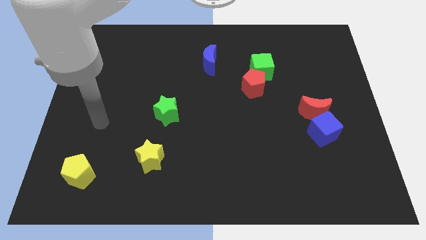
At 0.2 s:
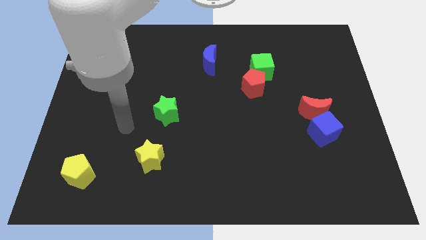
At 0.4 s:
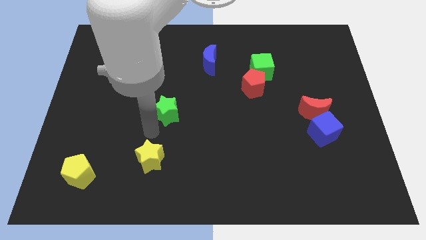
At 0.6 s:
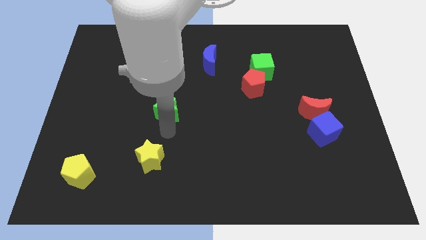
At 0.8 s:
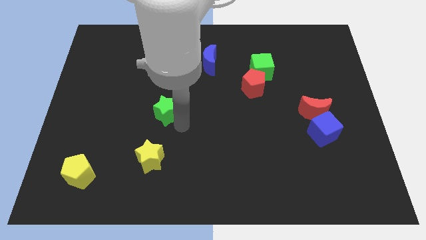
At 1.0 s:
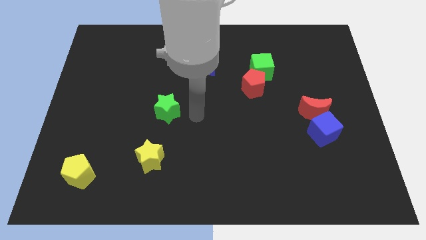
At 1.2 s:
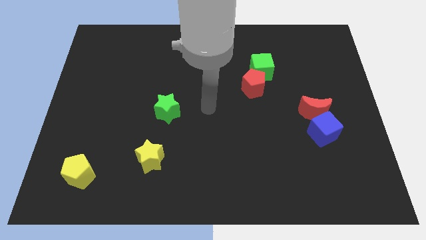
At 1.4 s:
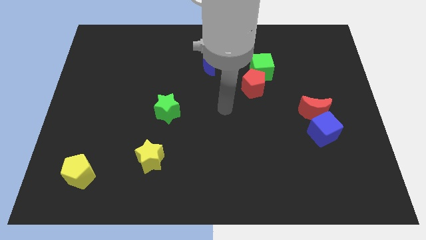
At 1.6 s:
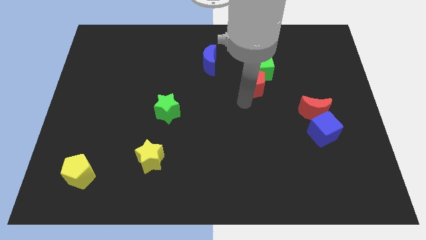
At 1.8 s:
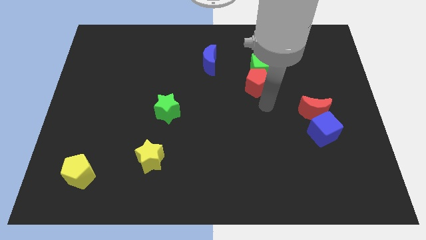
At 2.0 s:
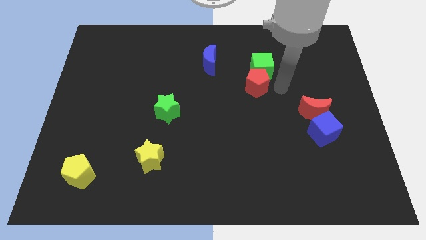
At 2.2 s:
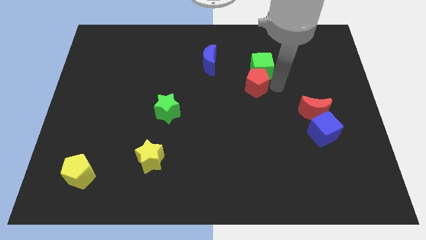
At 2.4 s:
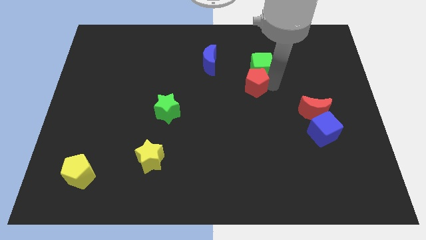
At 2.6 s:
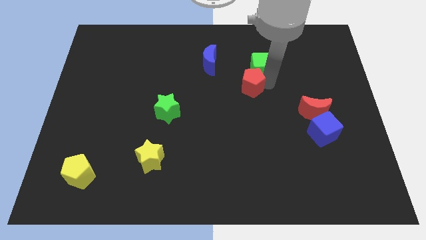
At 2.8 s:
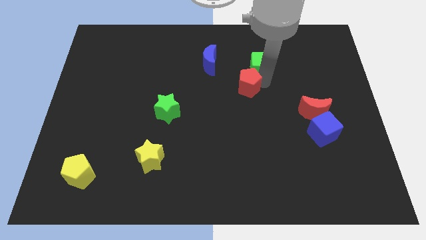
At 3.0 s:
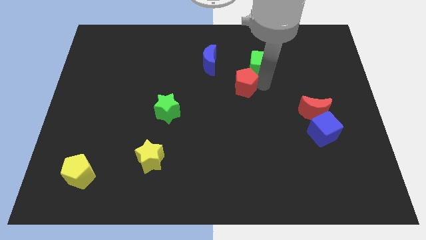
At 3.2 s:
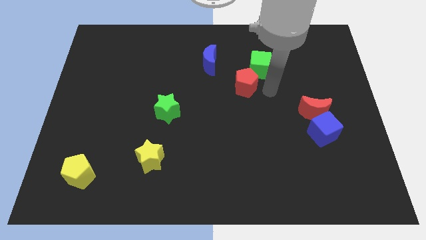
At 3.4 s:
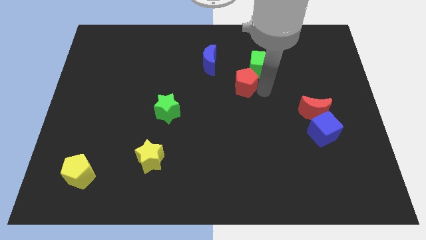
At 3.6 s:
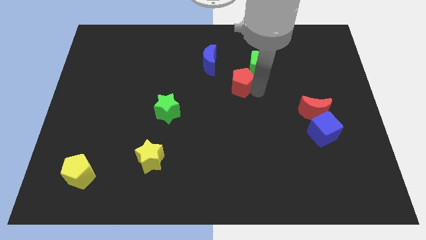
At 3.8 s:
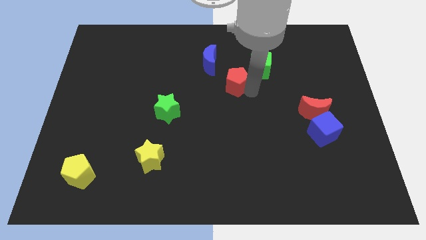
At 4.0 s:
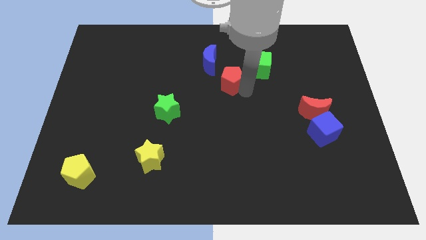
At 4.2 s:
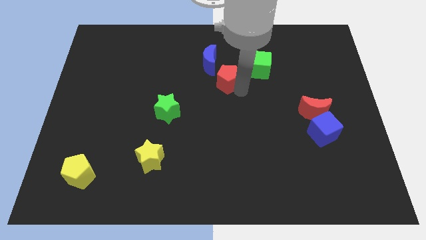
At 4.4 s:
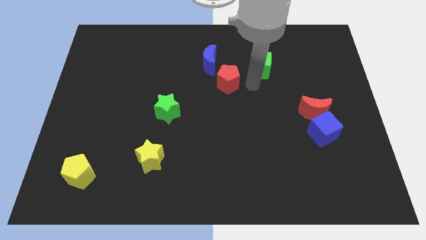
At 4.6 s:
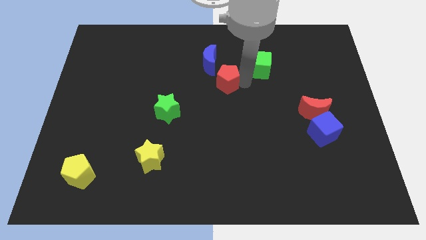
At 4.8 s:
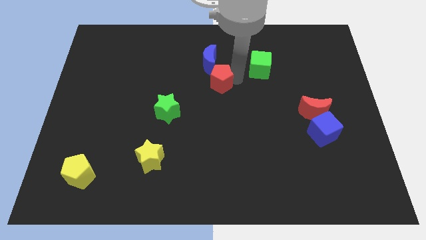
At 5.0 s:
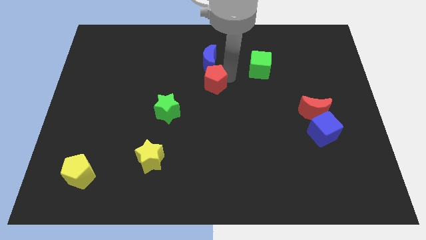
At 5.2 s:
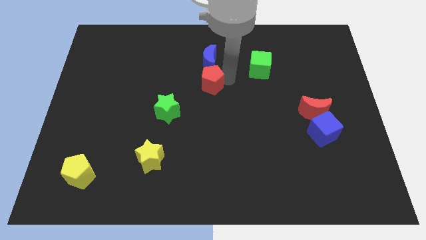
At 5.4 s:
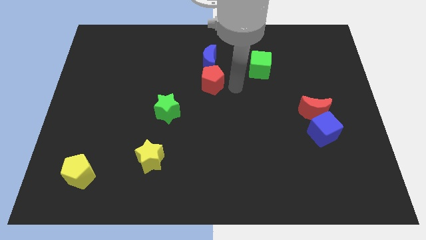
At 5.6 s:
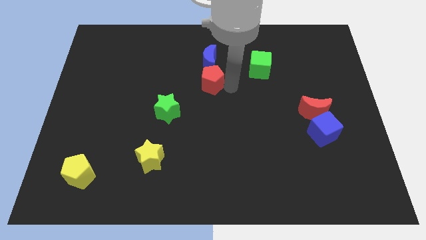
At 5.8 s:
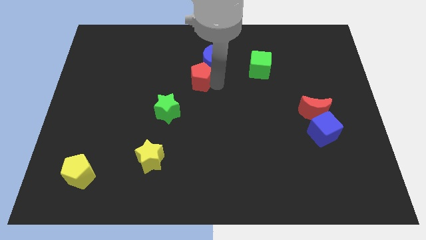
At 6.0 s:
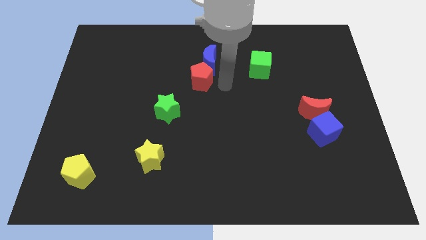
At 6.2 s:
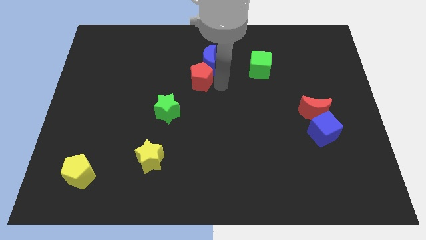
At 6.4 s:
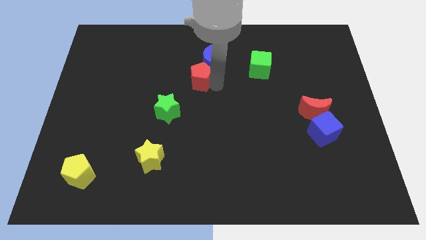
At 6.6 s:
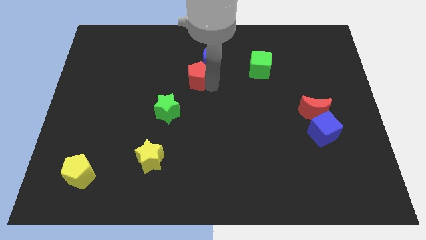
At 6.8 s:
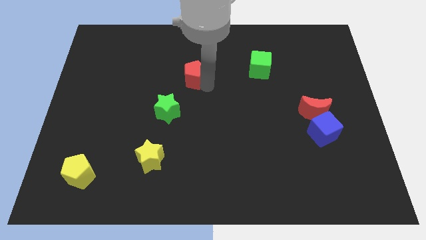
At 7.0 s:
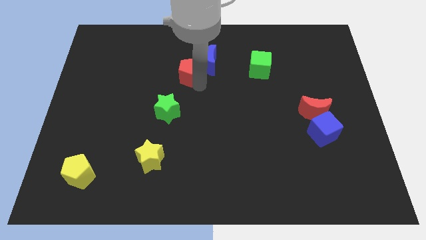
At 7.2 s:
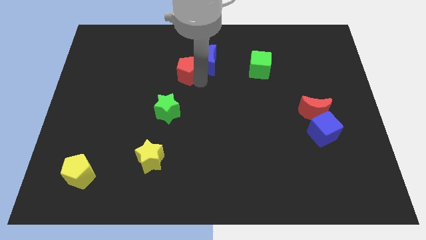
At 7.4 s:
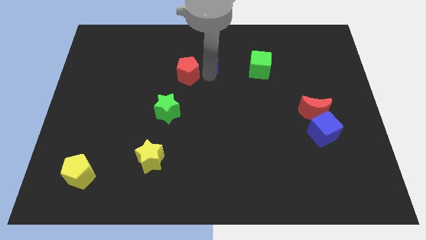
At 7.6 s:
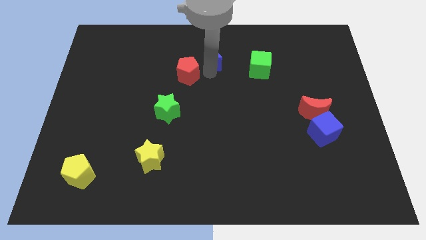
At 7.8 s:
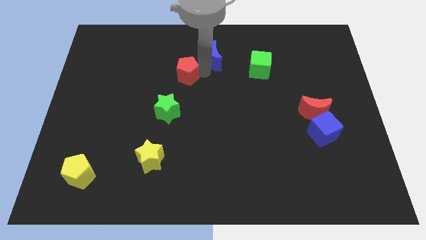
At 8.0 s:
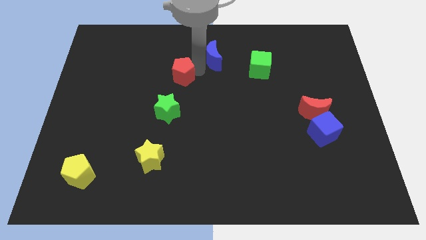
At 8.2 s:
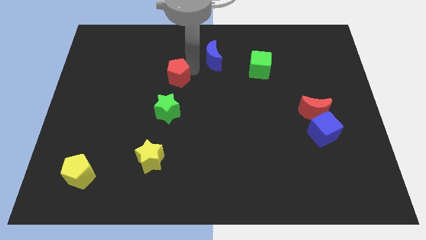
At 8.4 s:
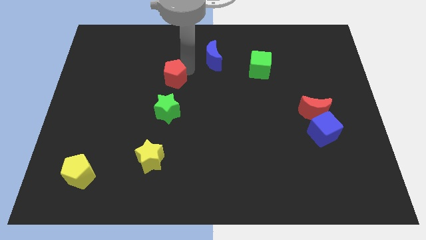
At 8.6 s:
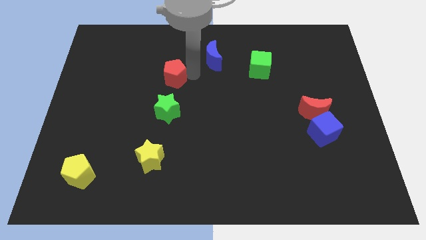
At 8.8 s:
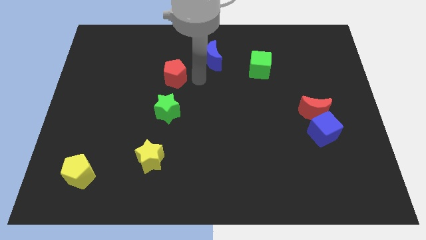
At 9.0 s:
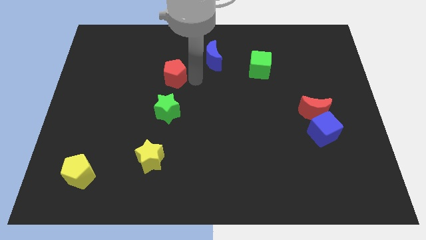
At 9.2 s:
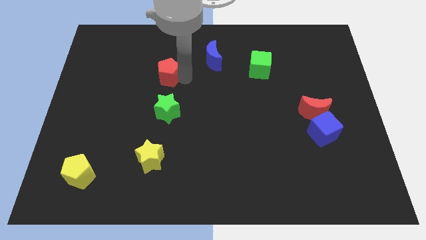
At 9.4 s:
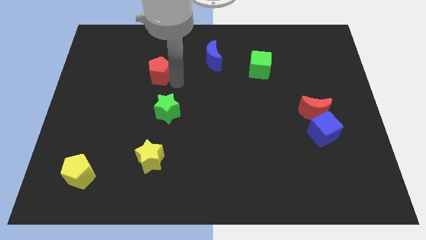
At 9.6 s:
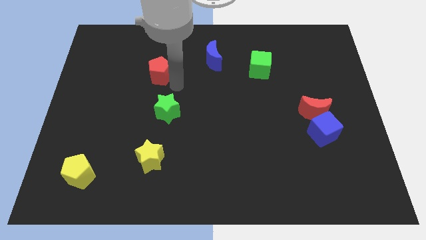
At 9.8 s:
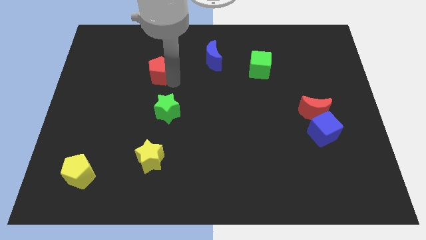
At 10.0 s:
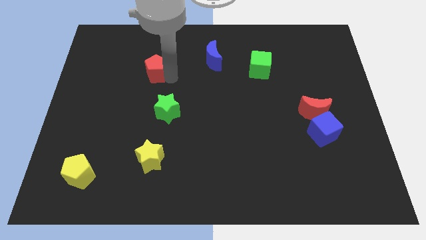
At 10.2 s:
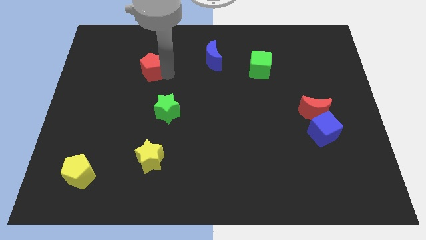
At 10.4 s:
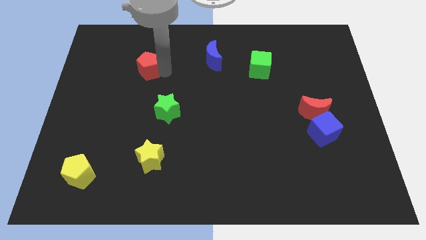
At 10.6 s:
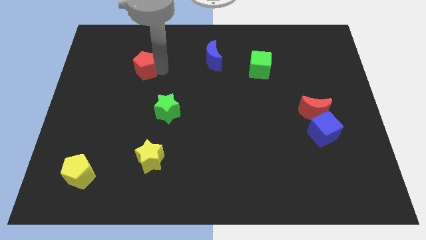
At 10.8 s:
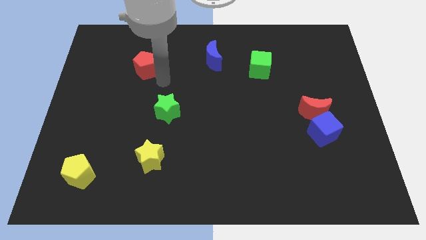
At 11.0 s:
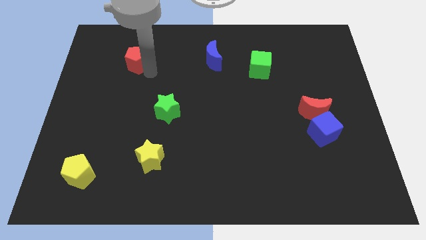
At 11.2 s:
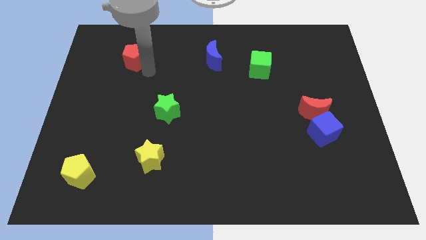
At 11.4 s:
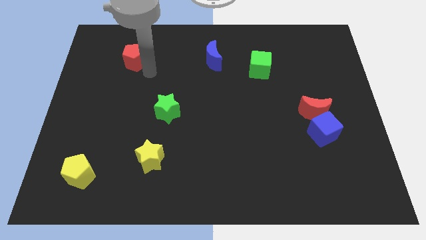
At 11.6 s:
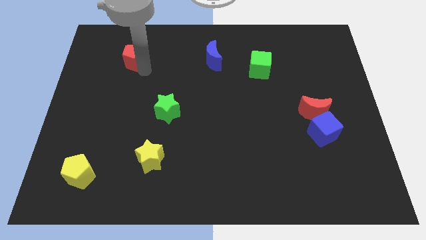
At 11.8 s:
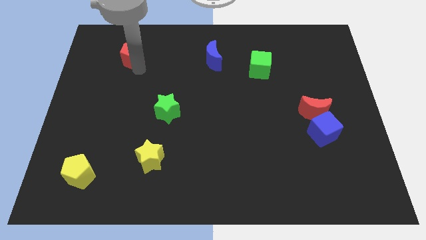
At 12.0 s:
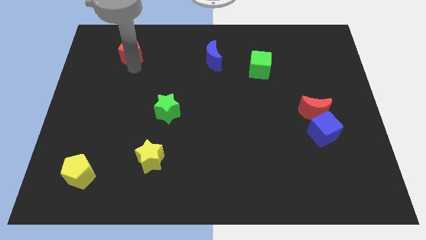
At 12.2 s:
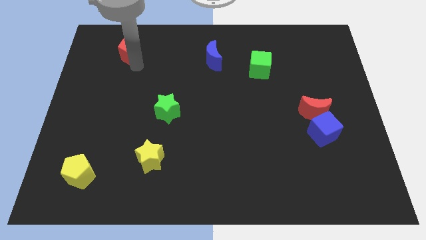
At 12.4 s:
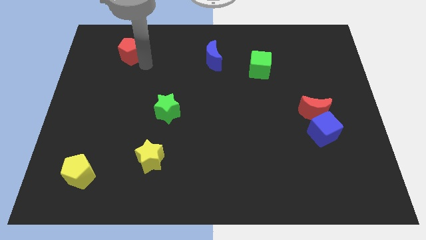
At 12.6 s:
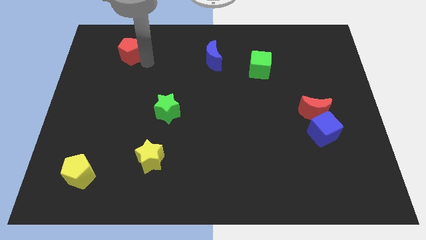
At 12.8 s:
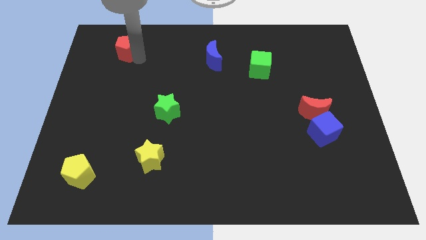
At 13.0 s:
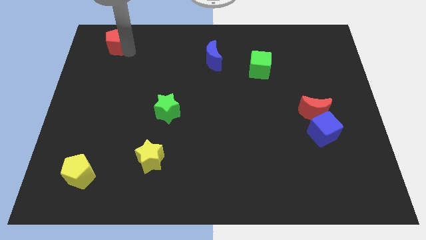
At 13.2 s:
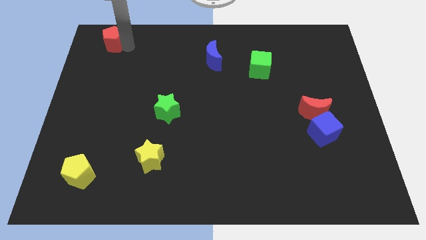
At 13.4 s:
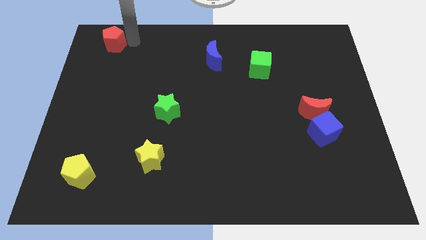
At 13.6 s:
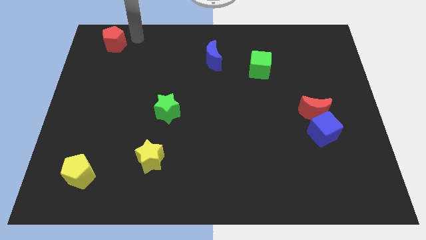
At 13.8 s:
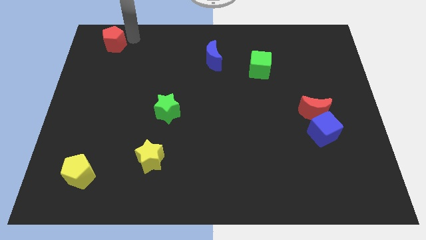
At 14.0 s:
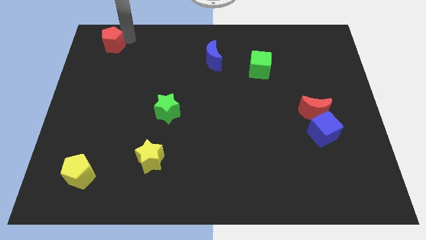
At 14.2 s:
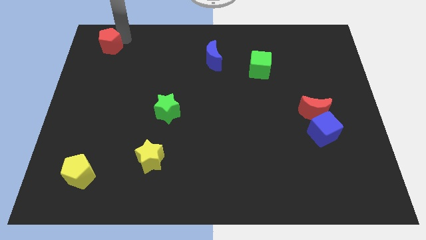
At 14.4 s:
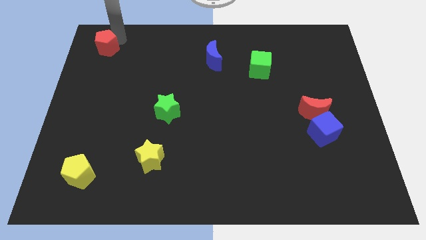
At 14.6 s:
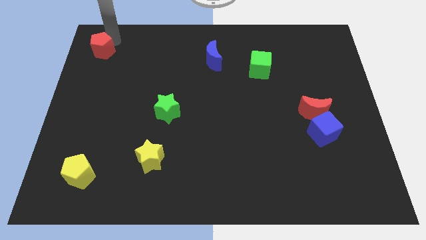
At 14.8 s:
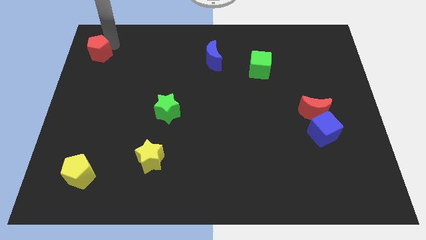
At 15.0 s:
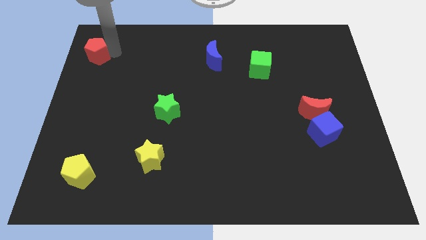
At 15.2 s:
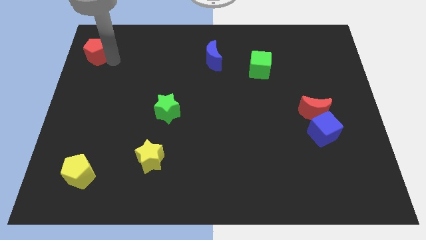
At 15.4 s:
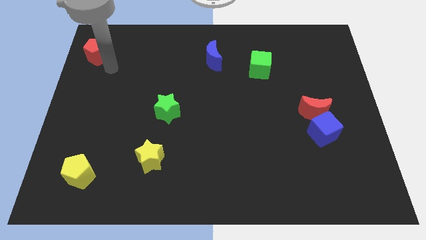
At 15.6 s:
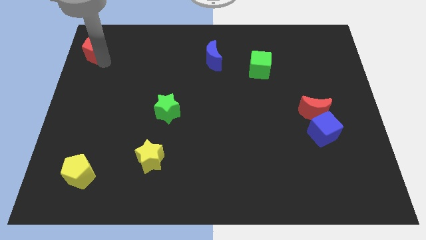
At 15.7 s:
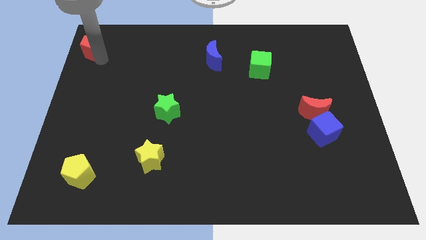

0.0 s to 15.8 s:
move the red pentagon to the upper left corner
